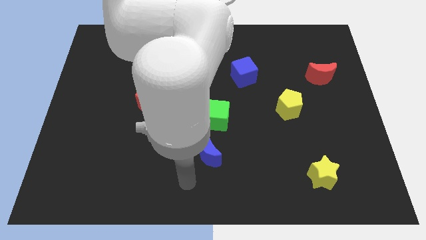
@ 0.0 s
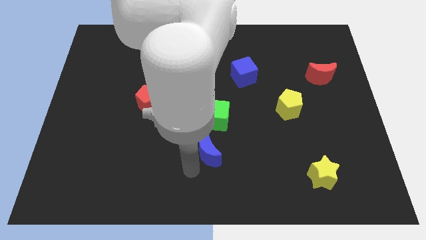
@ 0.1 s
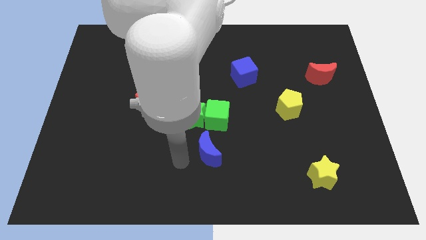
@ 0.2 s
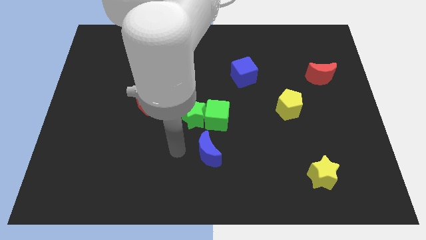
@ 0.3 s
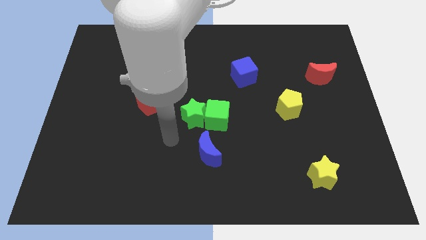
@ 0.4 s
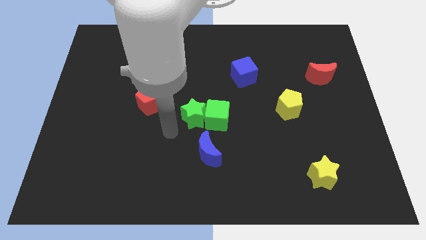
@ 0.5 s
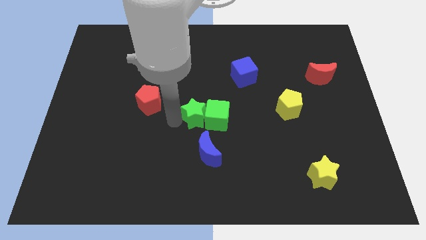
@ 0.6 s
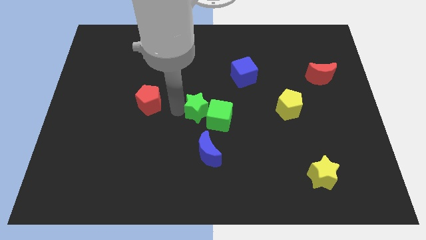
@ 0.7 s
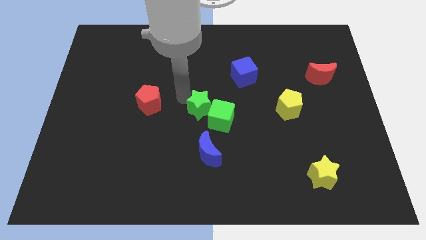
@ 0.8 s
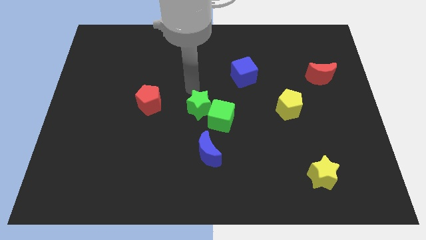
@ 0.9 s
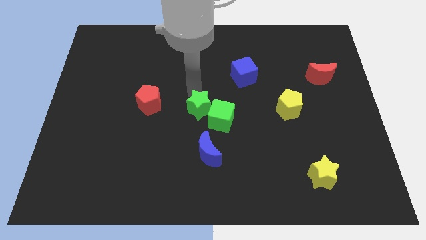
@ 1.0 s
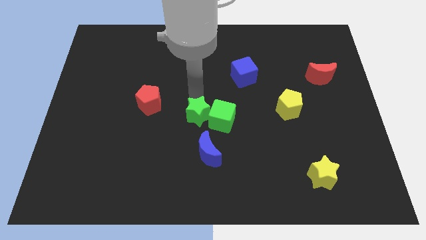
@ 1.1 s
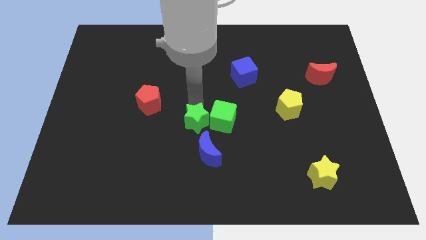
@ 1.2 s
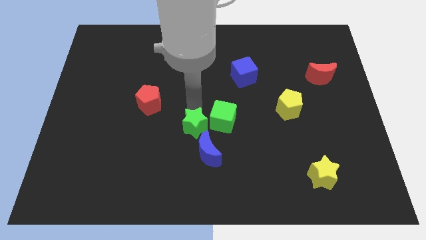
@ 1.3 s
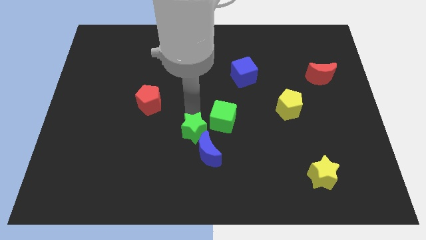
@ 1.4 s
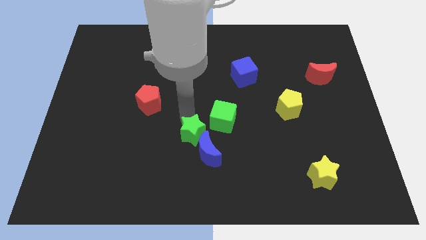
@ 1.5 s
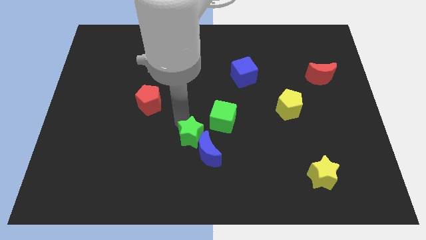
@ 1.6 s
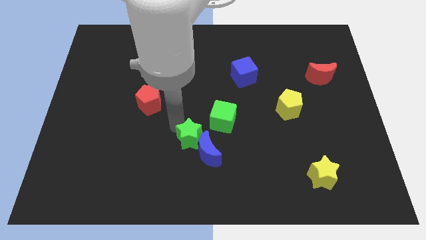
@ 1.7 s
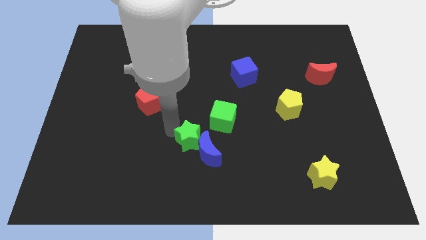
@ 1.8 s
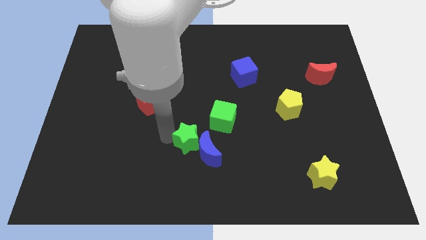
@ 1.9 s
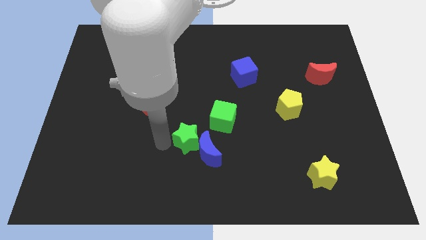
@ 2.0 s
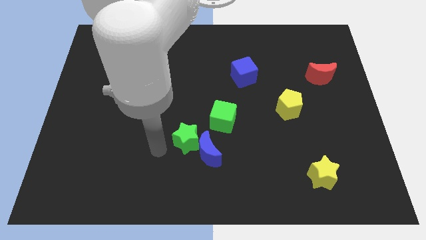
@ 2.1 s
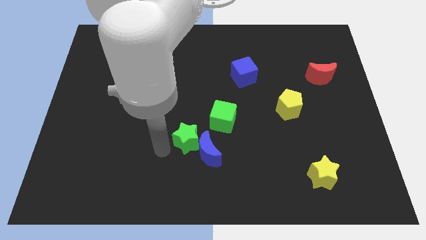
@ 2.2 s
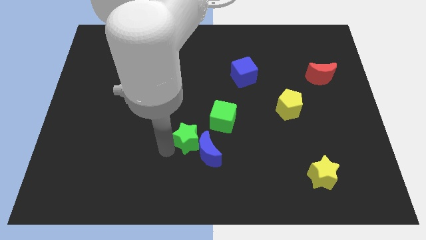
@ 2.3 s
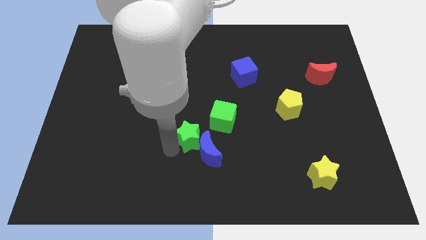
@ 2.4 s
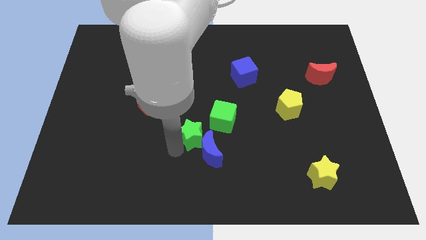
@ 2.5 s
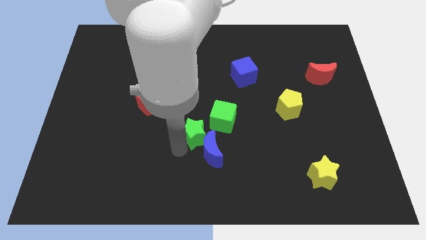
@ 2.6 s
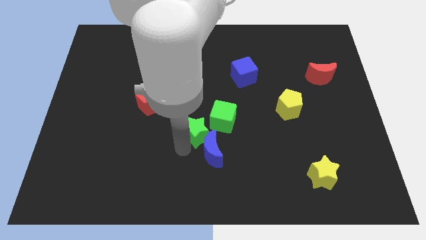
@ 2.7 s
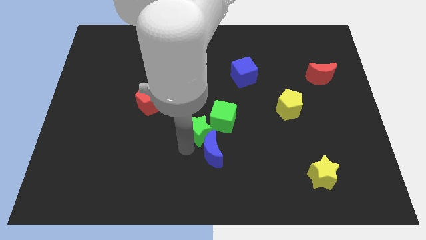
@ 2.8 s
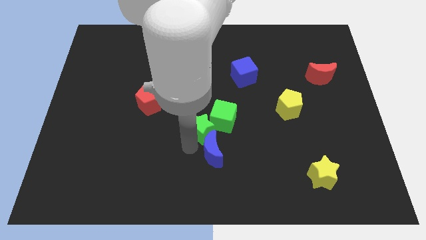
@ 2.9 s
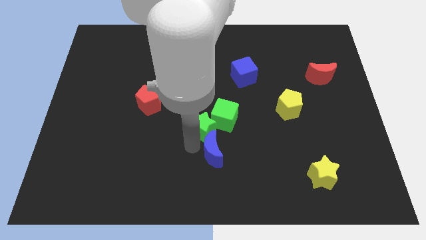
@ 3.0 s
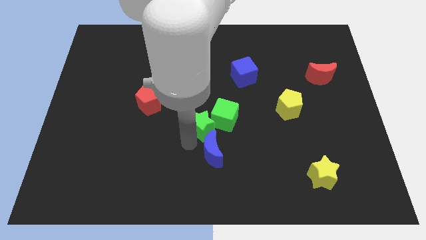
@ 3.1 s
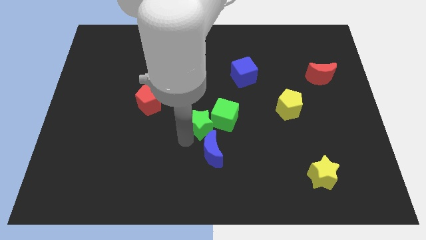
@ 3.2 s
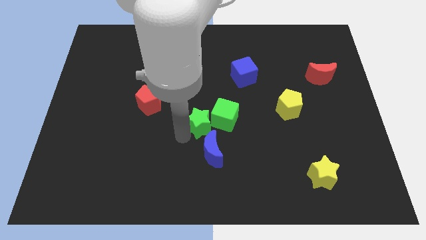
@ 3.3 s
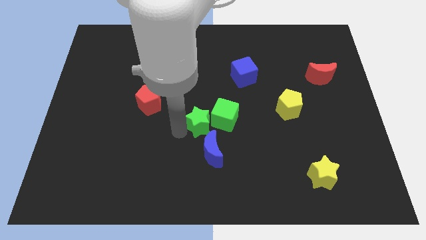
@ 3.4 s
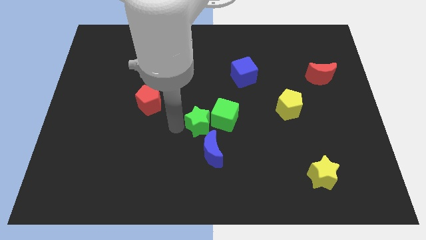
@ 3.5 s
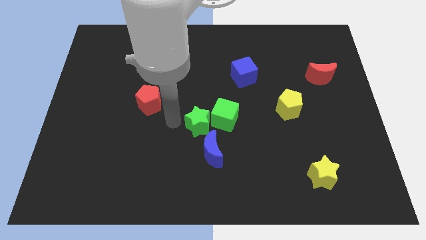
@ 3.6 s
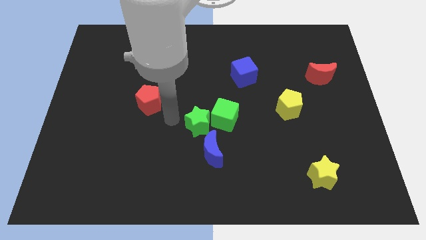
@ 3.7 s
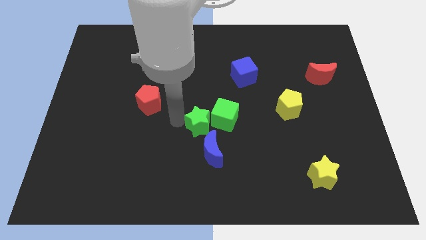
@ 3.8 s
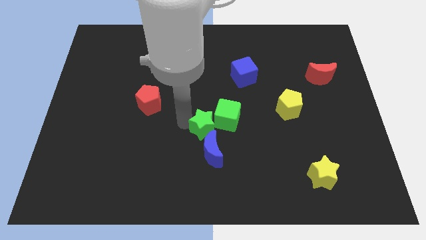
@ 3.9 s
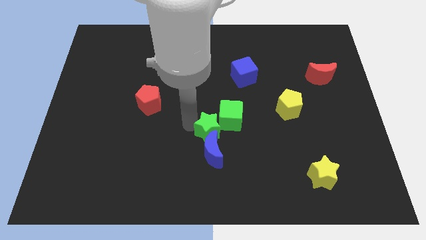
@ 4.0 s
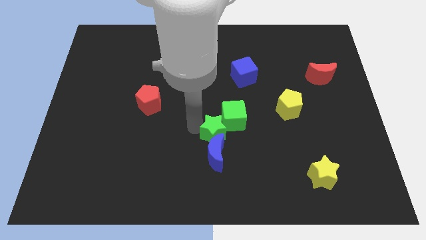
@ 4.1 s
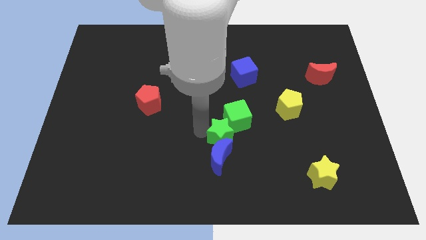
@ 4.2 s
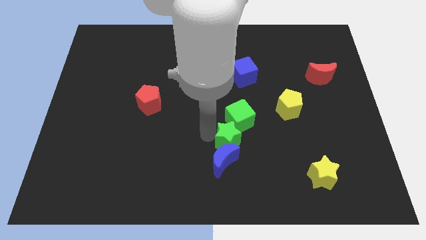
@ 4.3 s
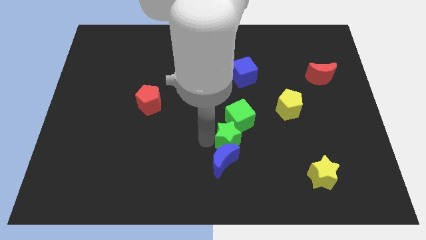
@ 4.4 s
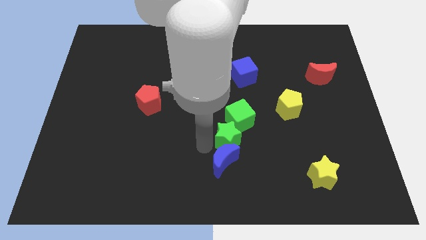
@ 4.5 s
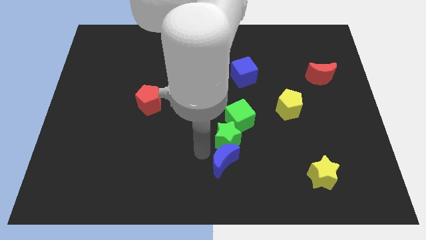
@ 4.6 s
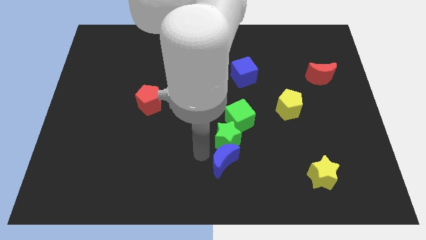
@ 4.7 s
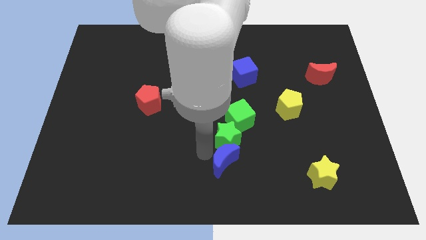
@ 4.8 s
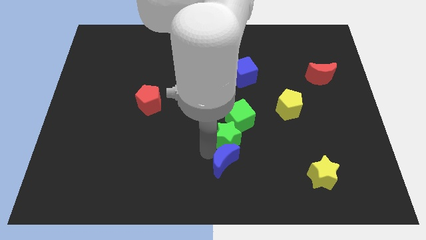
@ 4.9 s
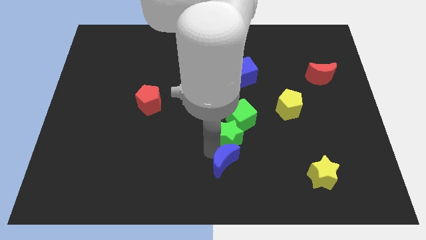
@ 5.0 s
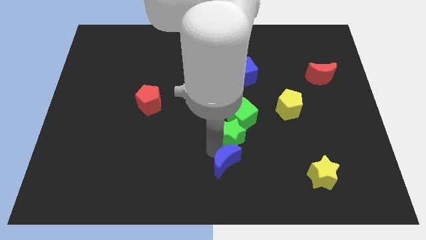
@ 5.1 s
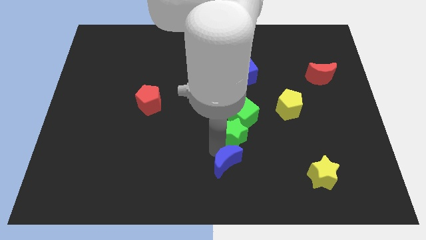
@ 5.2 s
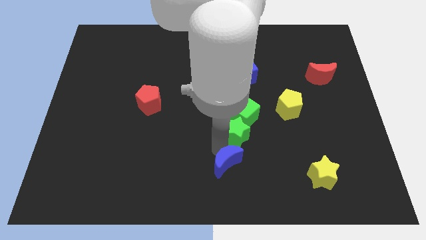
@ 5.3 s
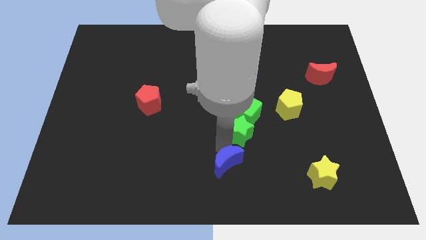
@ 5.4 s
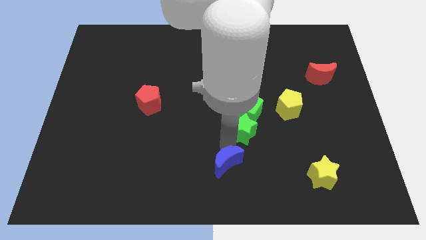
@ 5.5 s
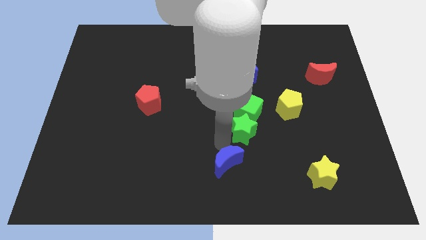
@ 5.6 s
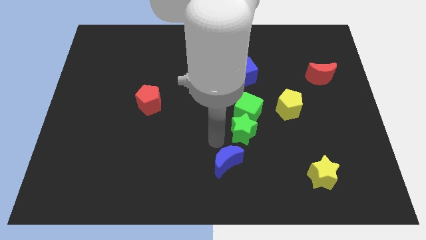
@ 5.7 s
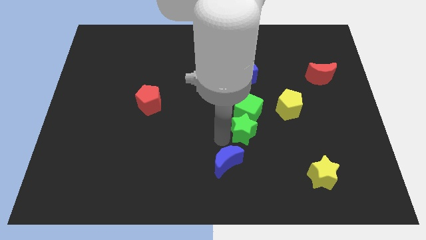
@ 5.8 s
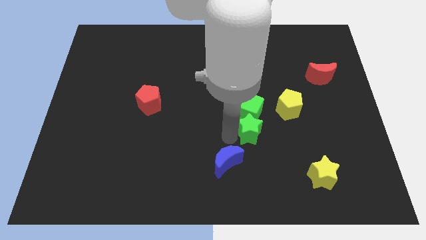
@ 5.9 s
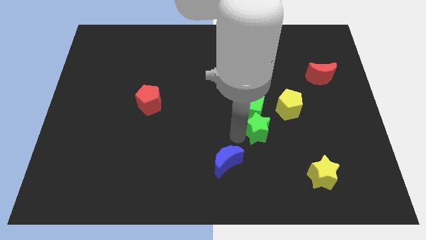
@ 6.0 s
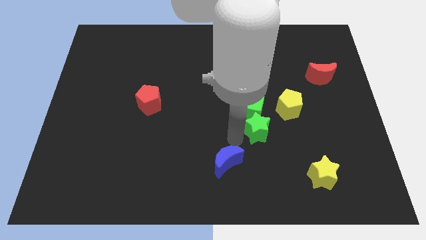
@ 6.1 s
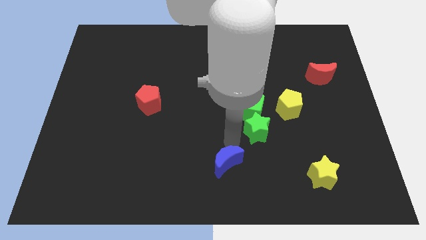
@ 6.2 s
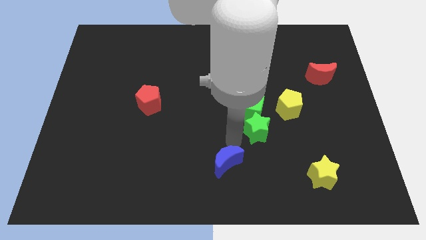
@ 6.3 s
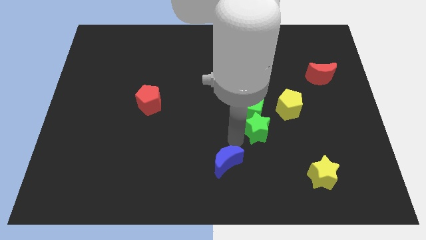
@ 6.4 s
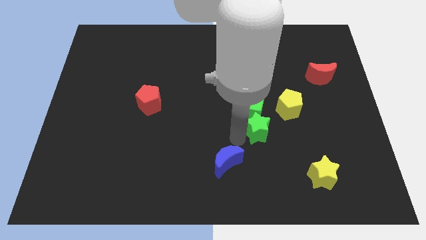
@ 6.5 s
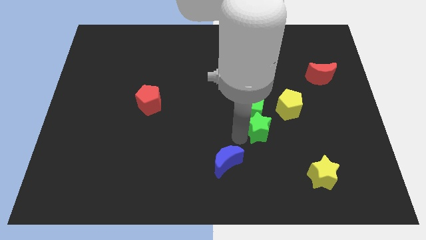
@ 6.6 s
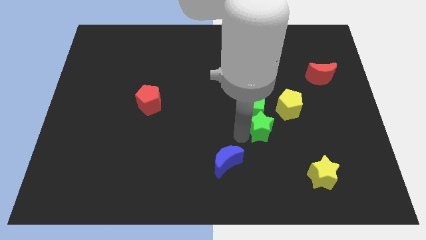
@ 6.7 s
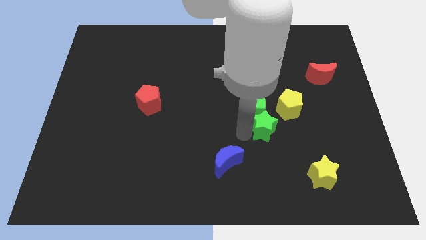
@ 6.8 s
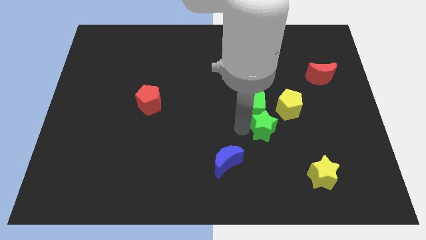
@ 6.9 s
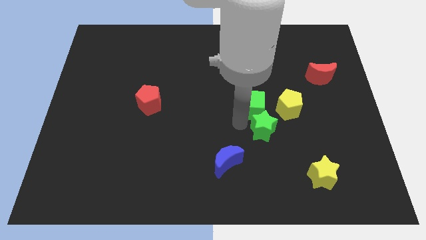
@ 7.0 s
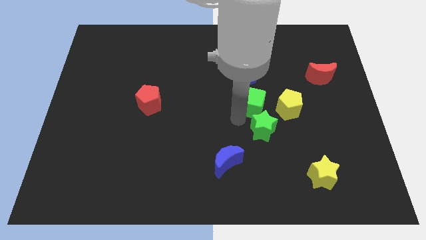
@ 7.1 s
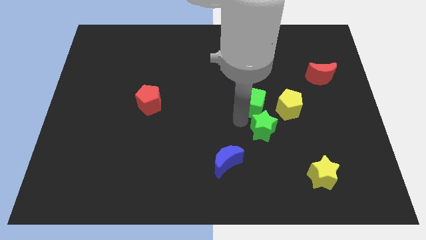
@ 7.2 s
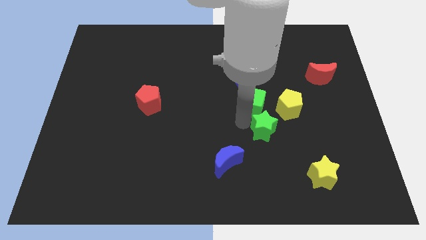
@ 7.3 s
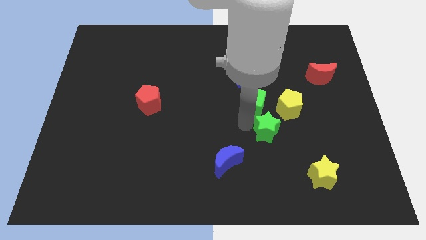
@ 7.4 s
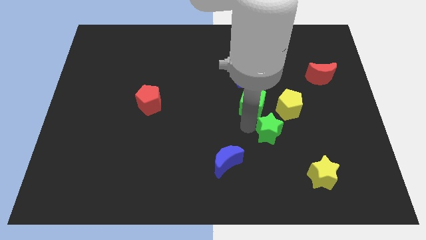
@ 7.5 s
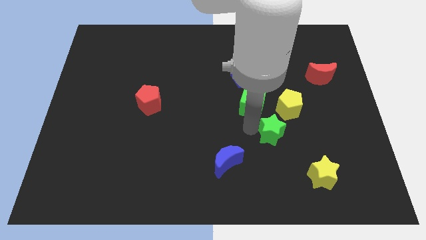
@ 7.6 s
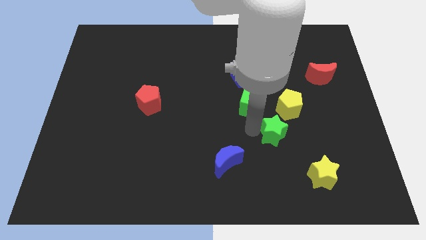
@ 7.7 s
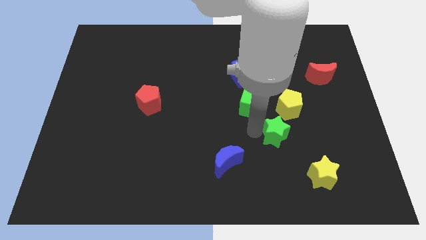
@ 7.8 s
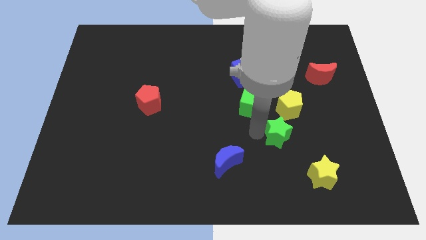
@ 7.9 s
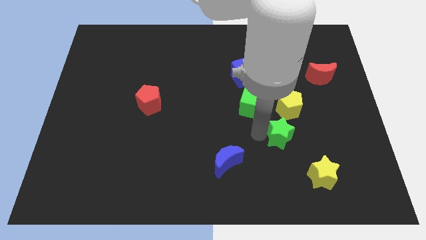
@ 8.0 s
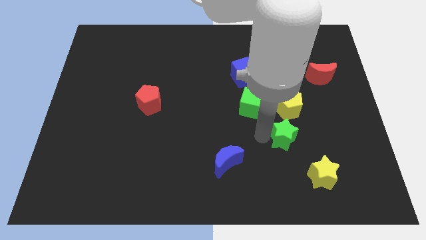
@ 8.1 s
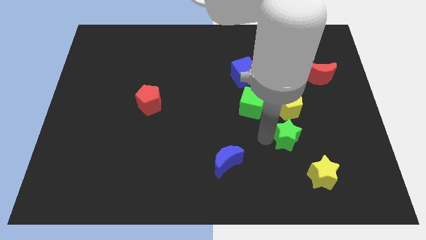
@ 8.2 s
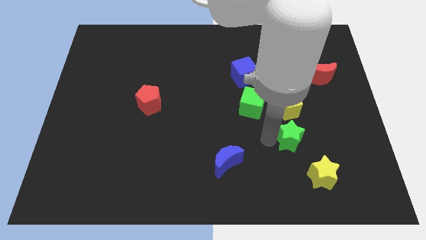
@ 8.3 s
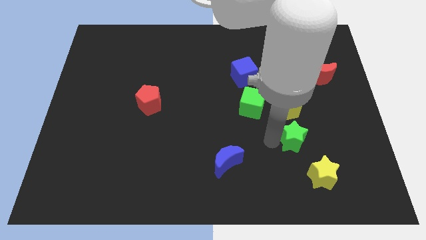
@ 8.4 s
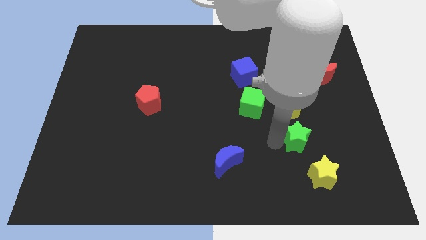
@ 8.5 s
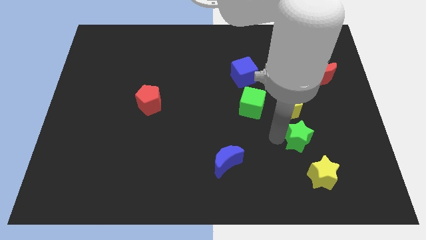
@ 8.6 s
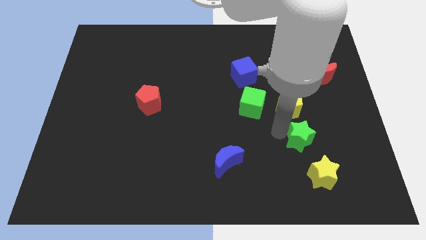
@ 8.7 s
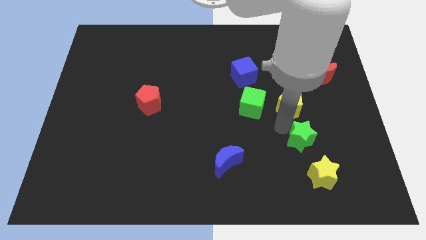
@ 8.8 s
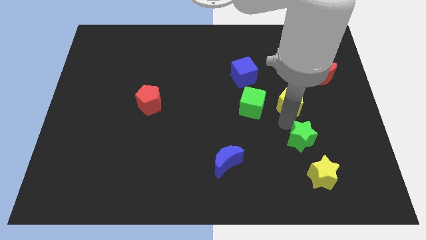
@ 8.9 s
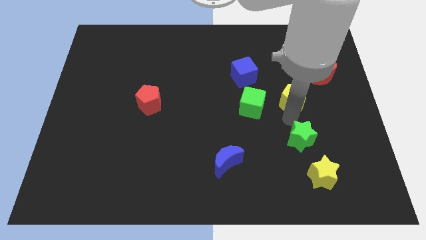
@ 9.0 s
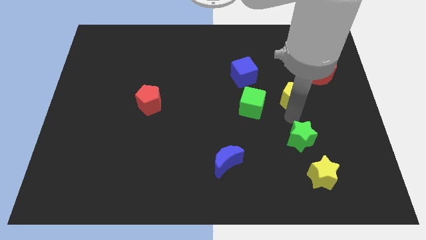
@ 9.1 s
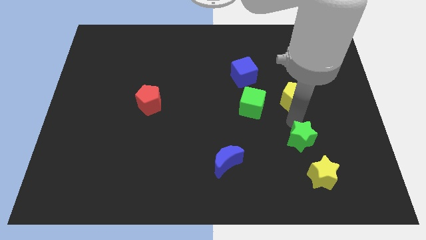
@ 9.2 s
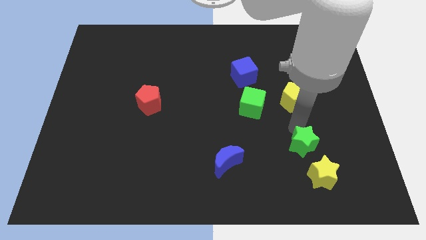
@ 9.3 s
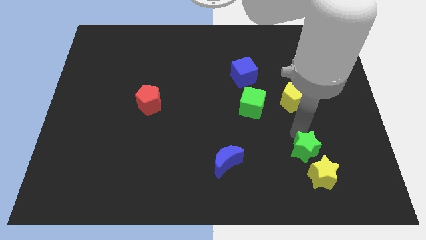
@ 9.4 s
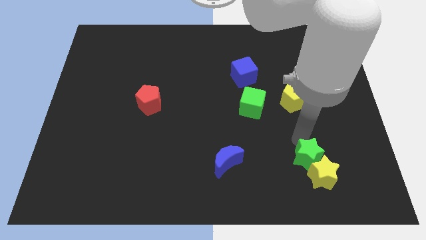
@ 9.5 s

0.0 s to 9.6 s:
push the green star towards the yellow star
